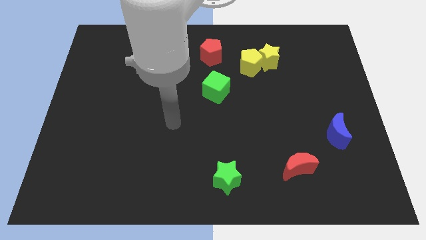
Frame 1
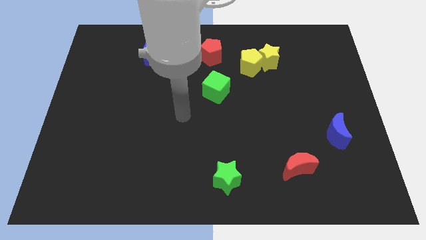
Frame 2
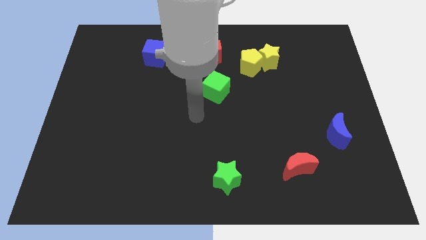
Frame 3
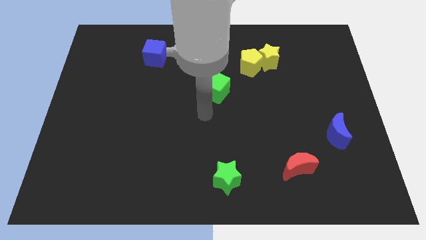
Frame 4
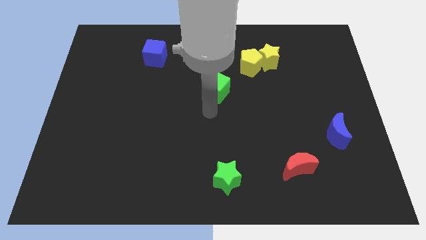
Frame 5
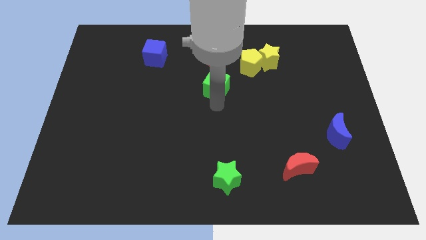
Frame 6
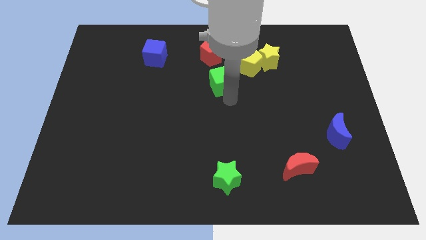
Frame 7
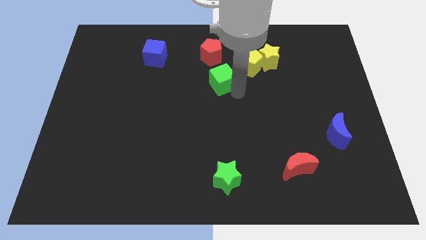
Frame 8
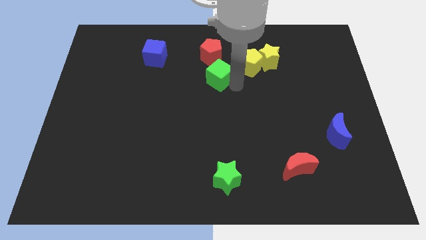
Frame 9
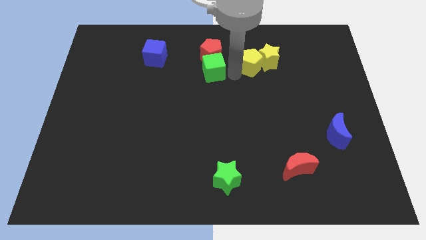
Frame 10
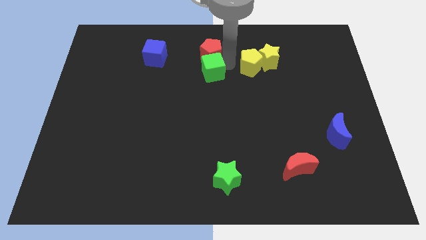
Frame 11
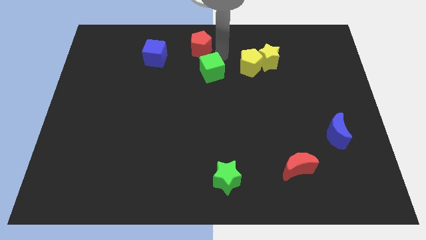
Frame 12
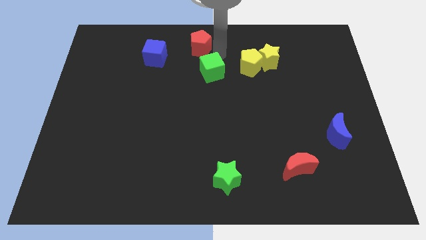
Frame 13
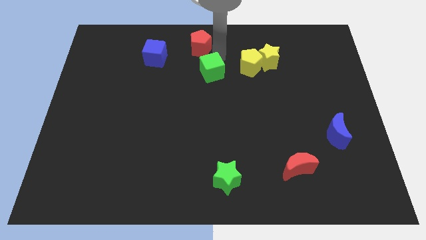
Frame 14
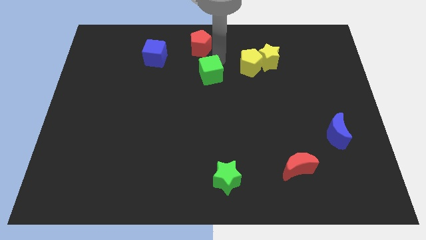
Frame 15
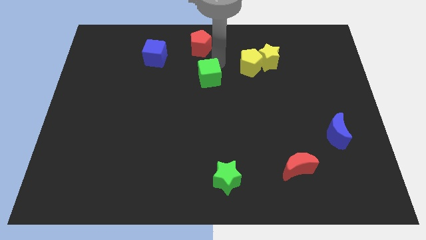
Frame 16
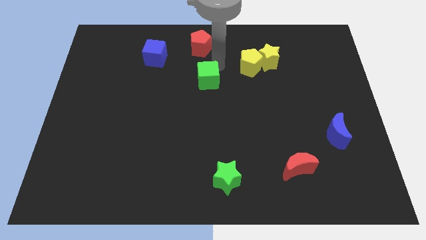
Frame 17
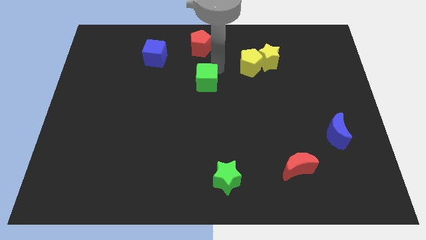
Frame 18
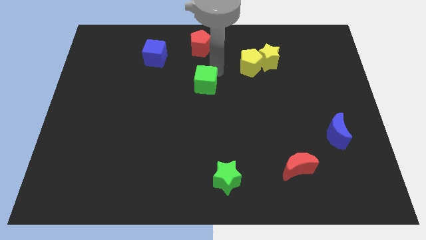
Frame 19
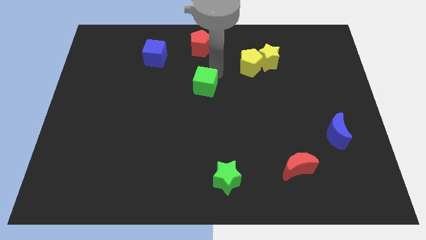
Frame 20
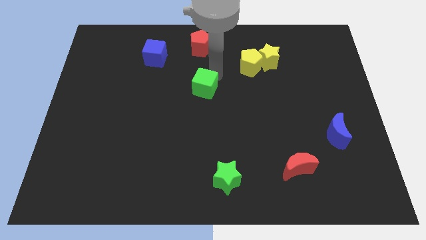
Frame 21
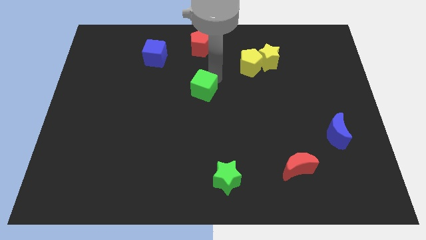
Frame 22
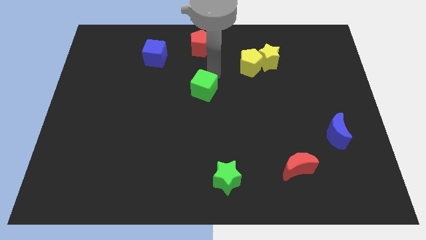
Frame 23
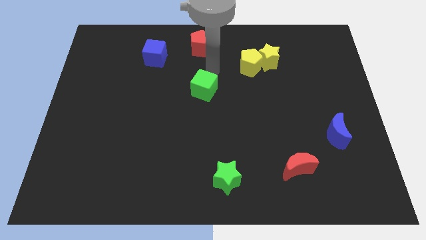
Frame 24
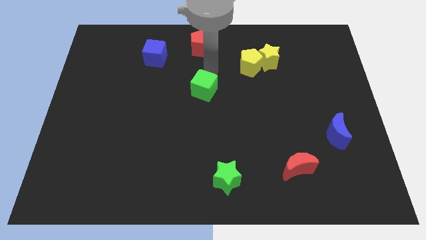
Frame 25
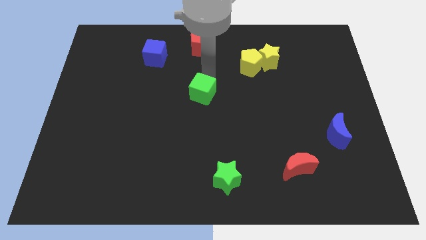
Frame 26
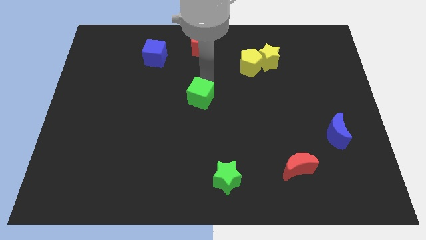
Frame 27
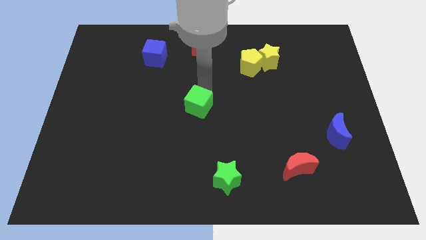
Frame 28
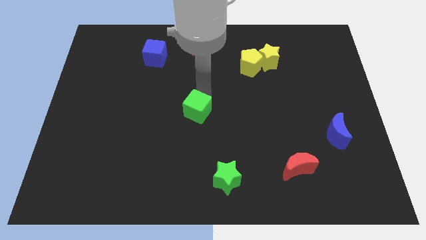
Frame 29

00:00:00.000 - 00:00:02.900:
move the green cube slightly diagonally down and to the left

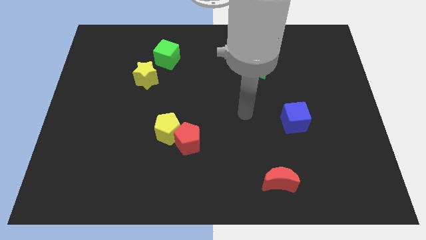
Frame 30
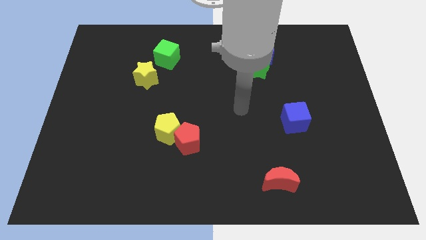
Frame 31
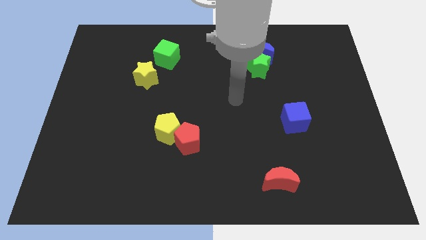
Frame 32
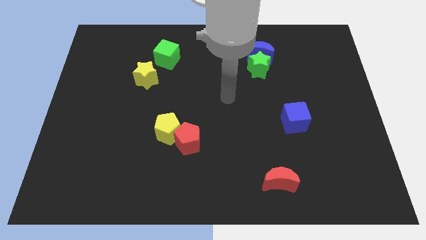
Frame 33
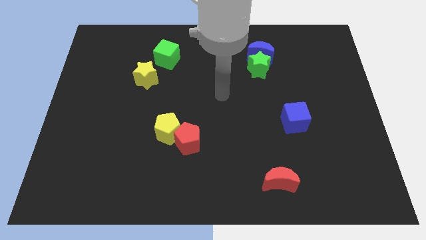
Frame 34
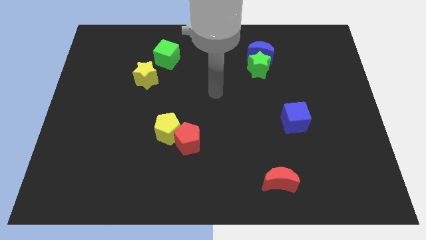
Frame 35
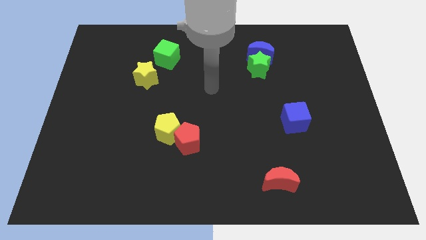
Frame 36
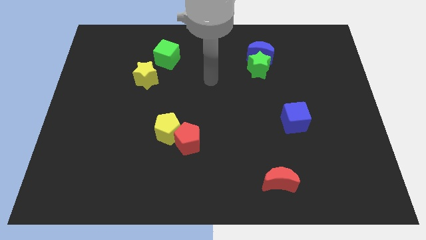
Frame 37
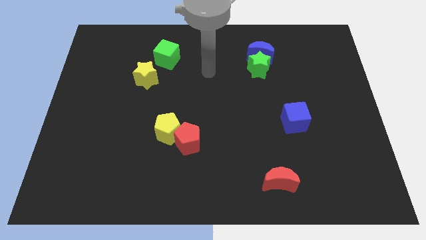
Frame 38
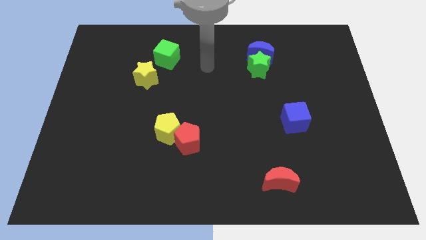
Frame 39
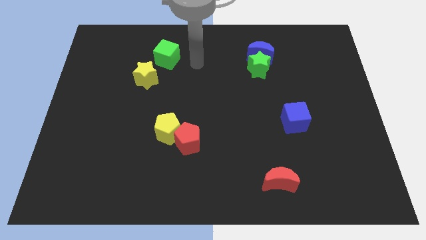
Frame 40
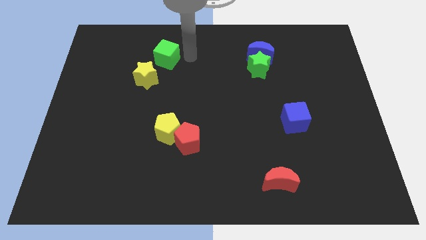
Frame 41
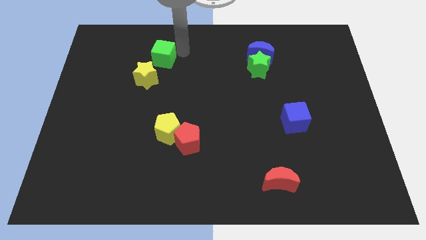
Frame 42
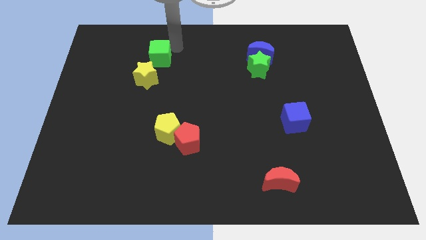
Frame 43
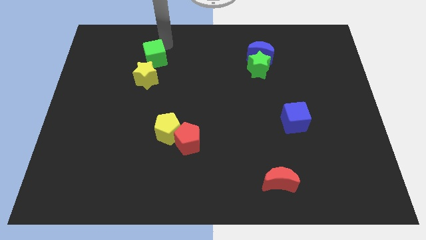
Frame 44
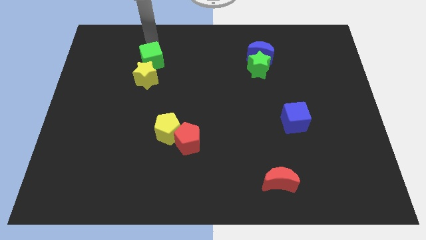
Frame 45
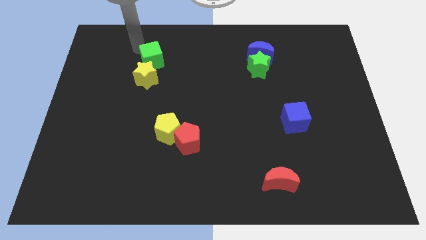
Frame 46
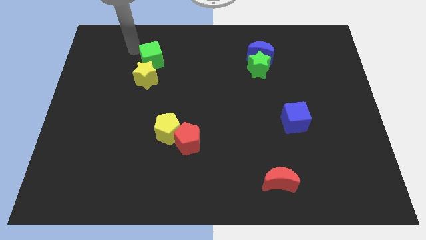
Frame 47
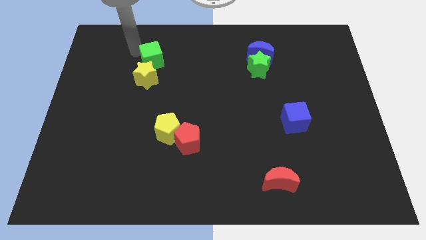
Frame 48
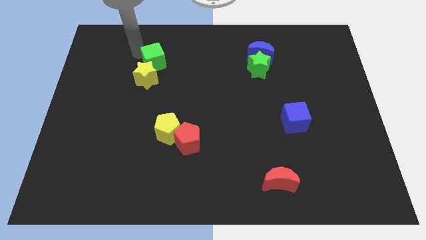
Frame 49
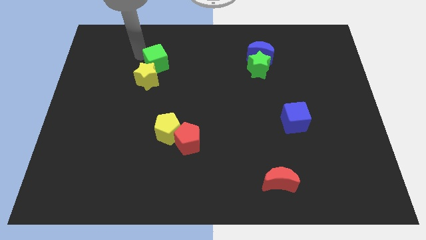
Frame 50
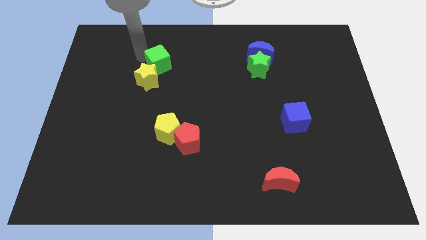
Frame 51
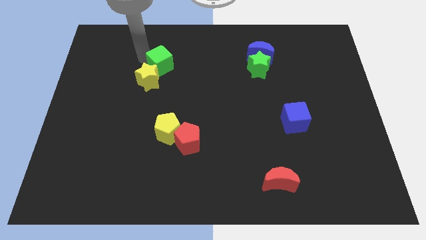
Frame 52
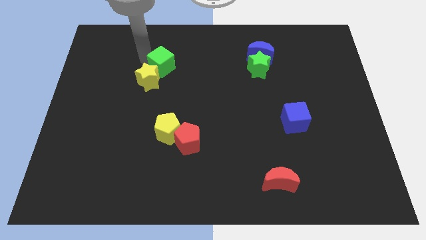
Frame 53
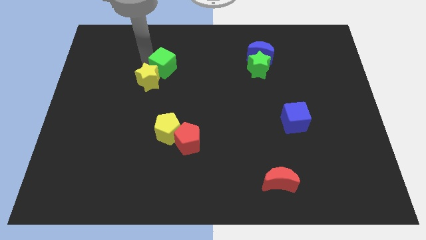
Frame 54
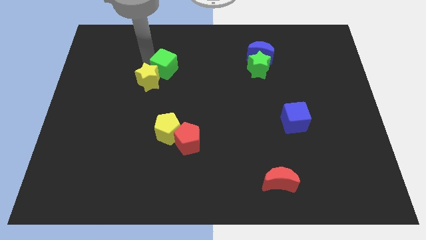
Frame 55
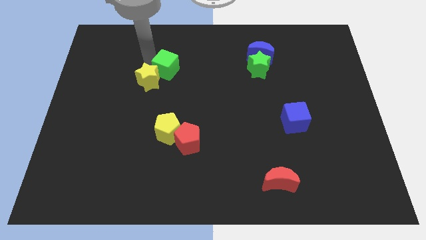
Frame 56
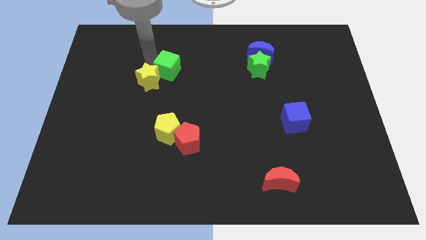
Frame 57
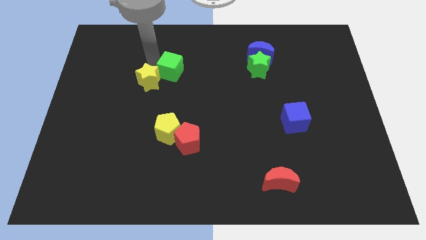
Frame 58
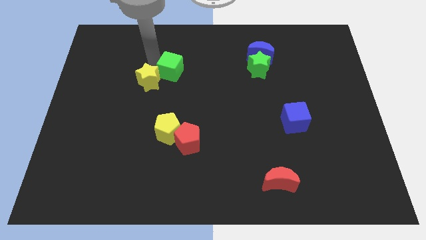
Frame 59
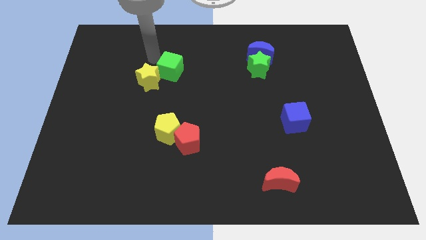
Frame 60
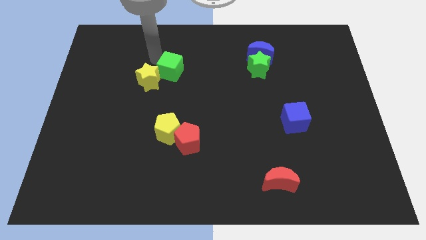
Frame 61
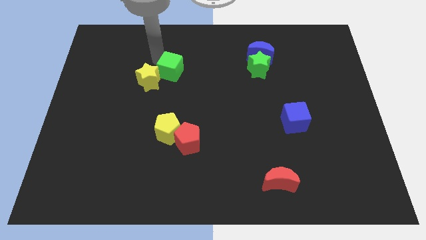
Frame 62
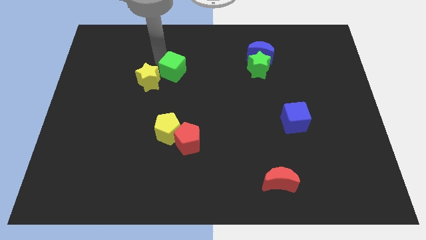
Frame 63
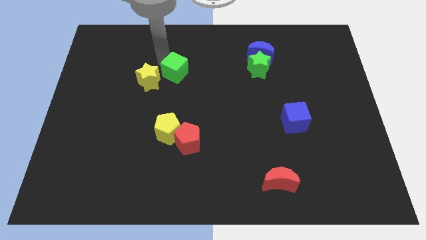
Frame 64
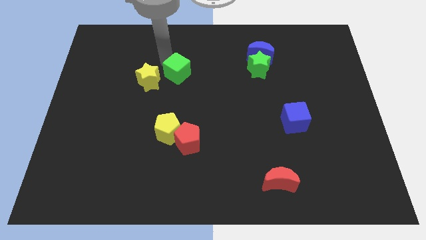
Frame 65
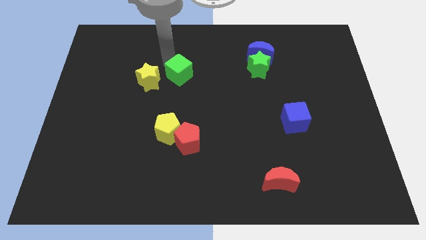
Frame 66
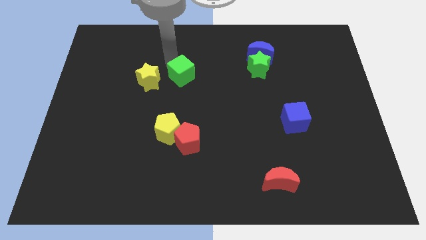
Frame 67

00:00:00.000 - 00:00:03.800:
slightly slide the green cube down and to the right diagonally

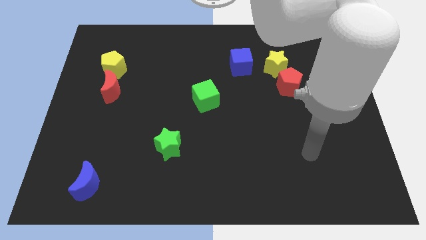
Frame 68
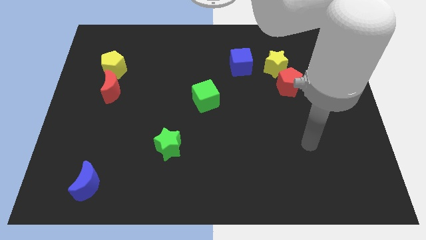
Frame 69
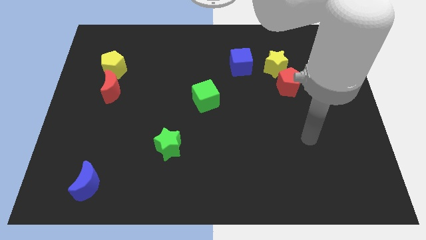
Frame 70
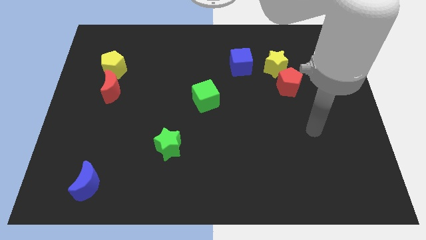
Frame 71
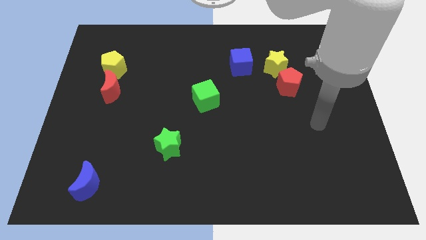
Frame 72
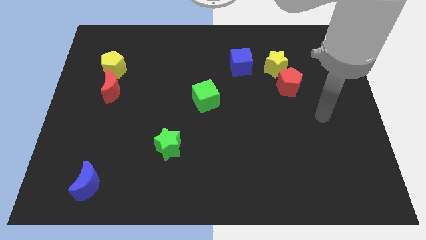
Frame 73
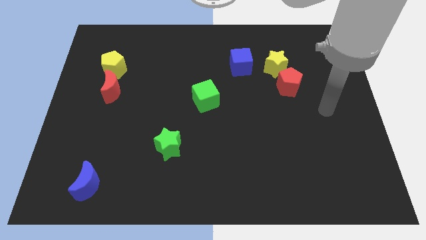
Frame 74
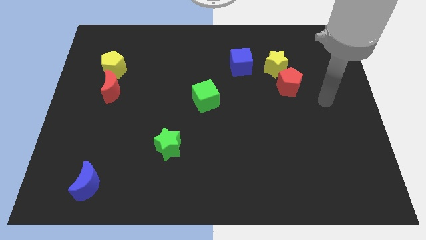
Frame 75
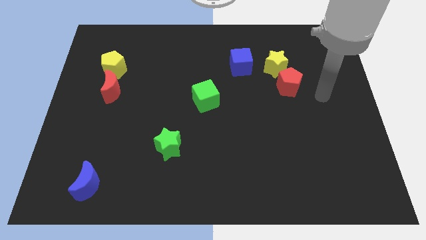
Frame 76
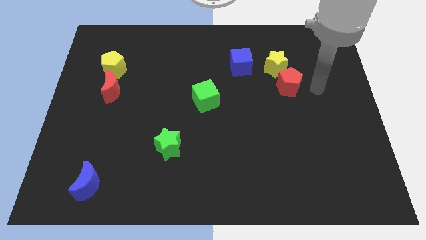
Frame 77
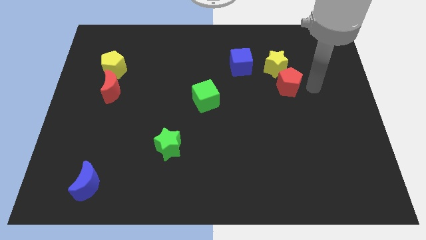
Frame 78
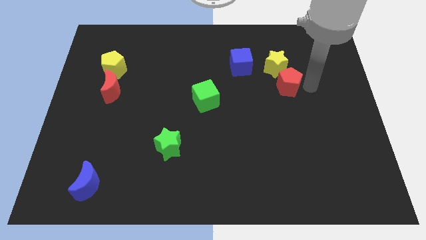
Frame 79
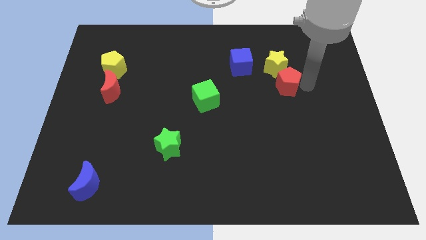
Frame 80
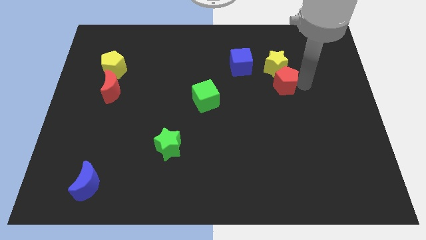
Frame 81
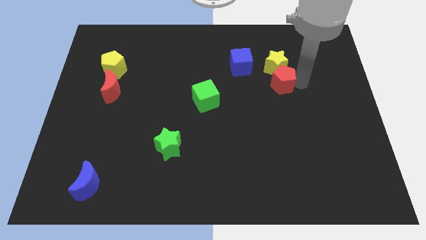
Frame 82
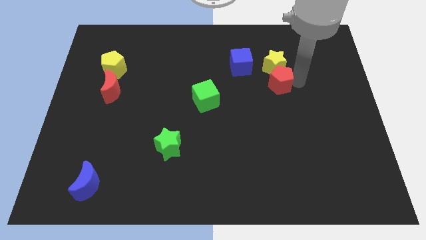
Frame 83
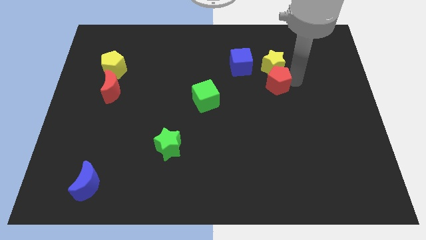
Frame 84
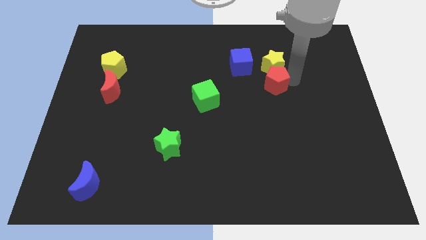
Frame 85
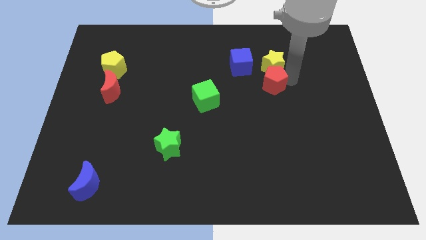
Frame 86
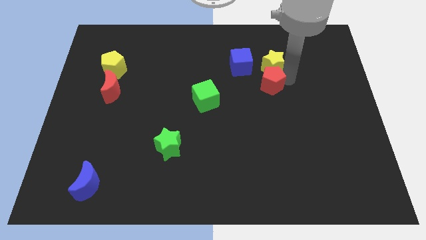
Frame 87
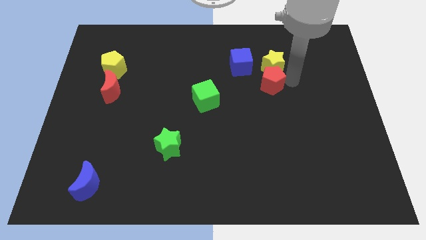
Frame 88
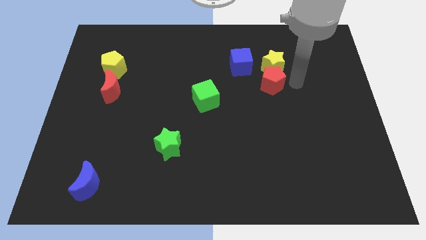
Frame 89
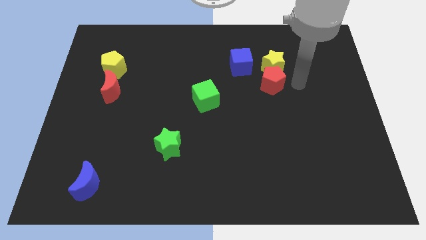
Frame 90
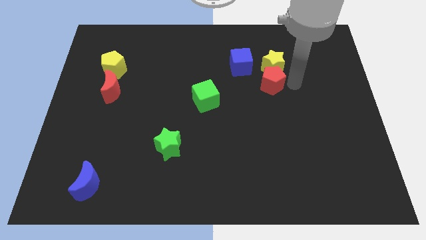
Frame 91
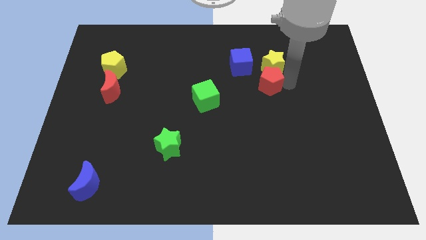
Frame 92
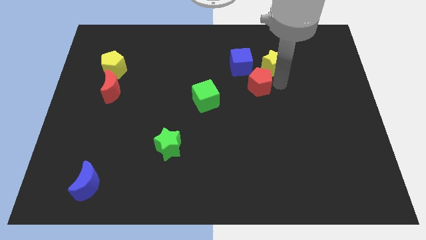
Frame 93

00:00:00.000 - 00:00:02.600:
slide the red pentagon left a little bit
